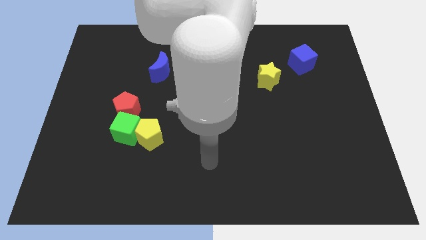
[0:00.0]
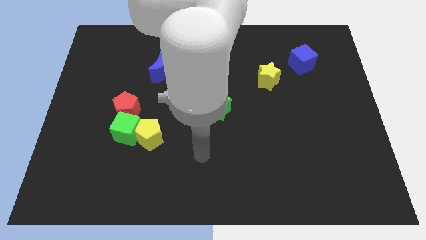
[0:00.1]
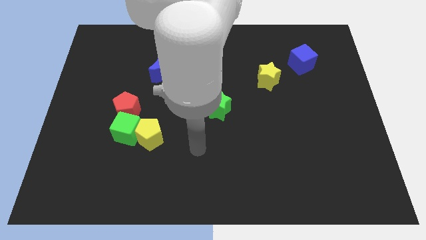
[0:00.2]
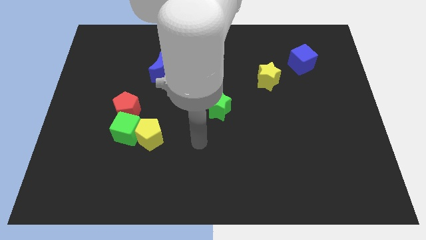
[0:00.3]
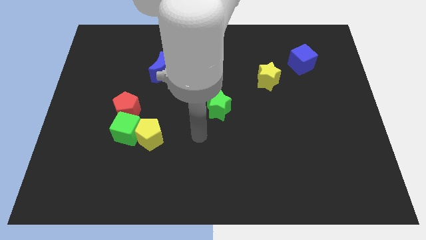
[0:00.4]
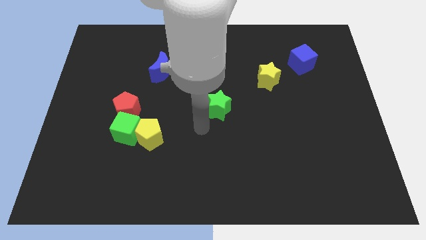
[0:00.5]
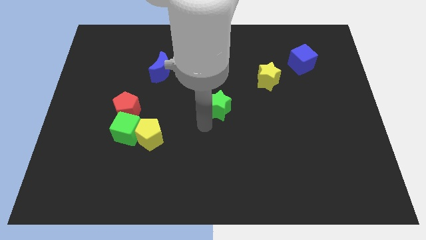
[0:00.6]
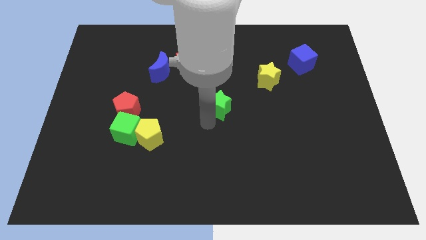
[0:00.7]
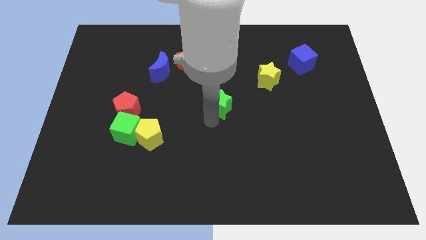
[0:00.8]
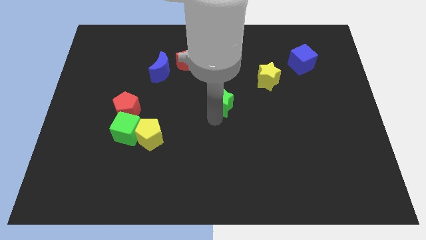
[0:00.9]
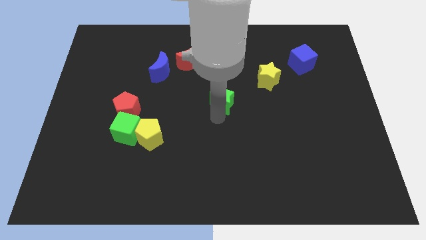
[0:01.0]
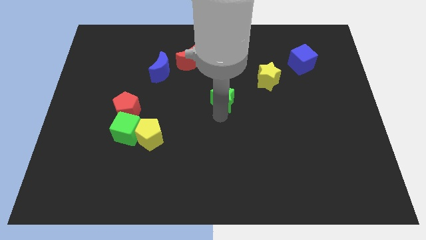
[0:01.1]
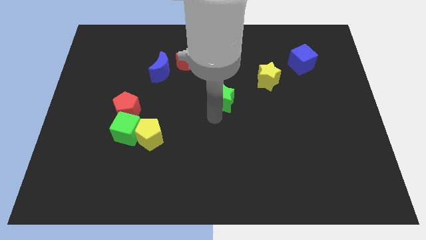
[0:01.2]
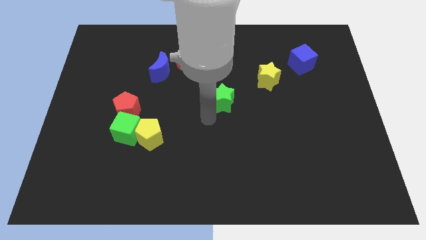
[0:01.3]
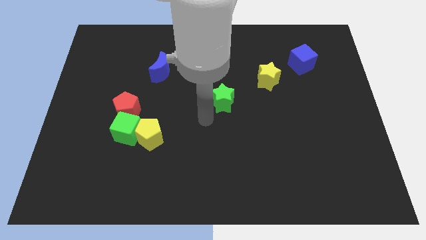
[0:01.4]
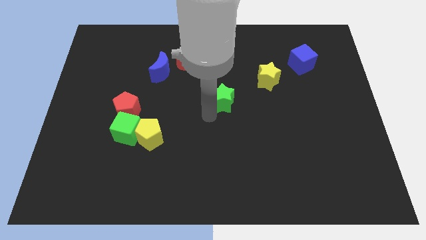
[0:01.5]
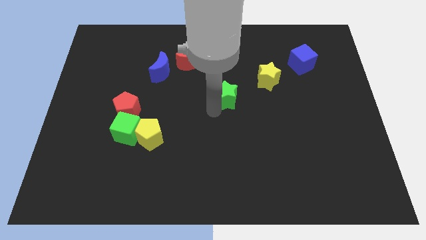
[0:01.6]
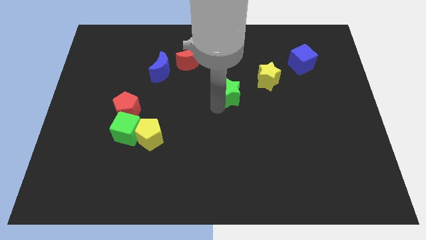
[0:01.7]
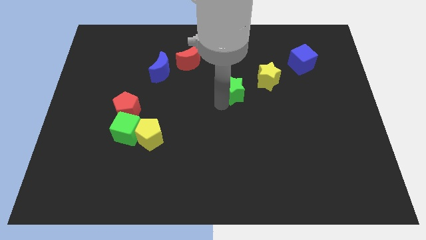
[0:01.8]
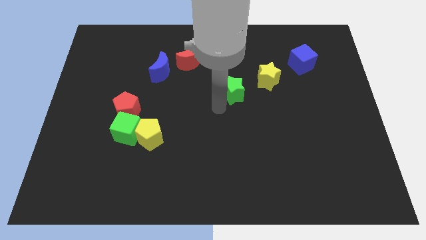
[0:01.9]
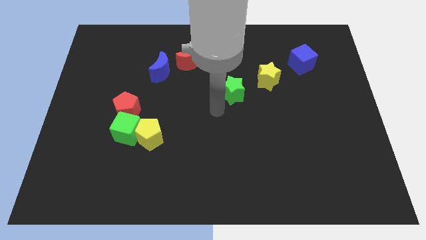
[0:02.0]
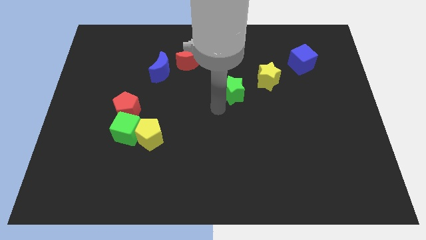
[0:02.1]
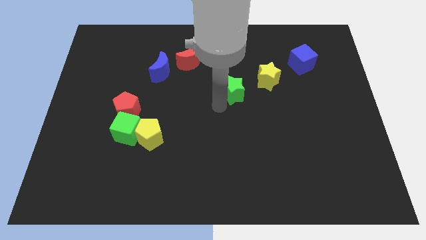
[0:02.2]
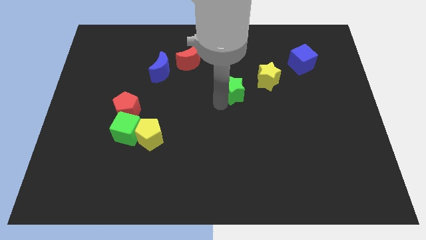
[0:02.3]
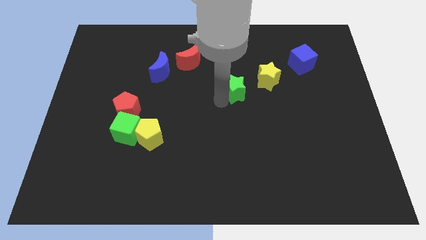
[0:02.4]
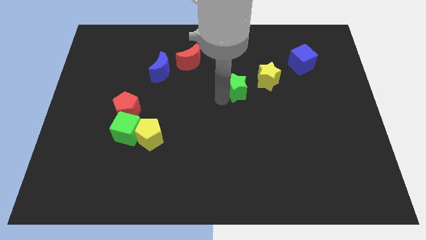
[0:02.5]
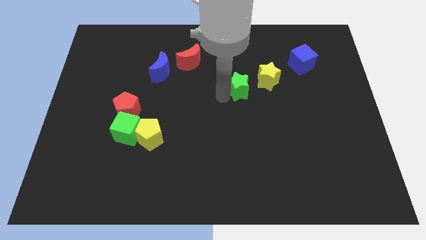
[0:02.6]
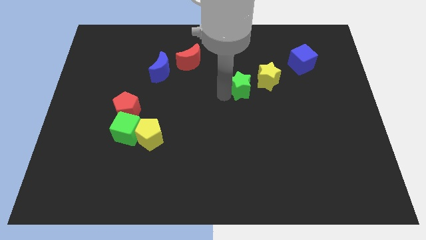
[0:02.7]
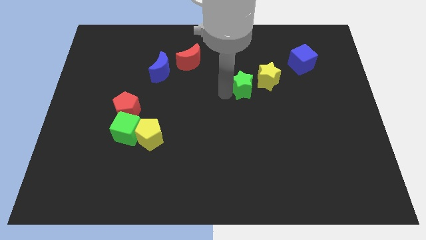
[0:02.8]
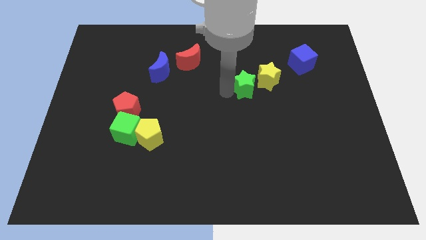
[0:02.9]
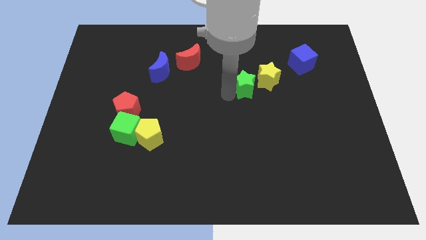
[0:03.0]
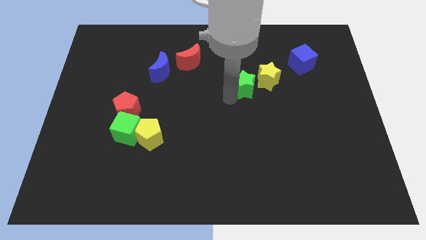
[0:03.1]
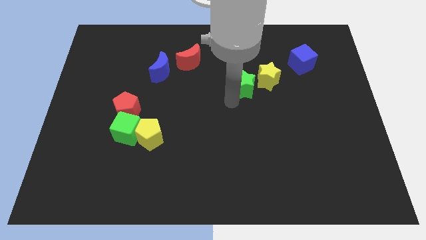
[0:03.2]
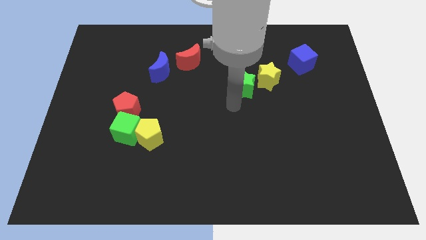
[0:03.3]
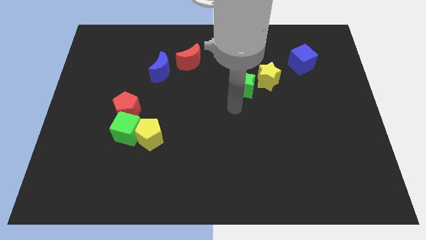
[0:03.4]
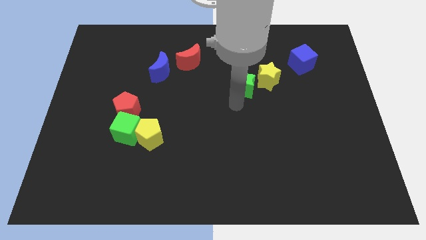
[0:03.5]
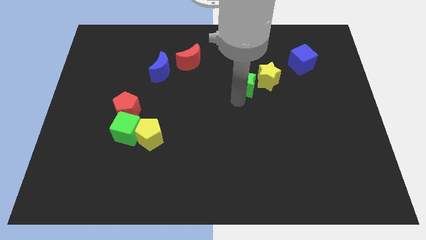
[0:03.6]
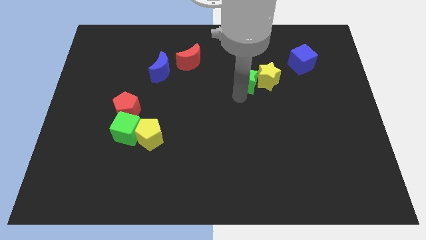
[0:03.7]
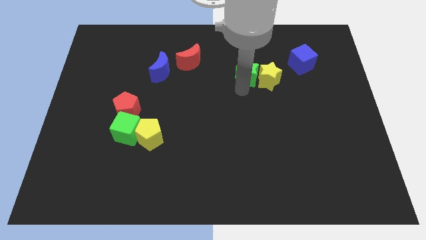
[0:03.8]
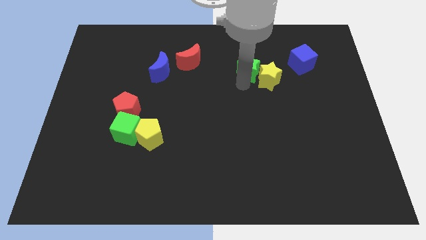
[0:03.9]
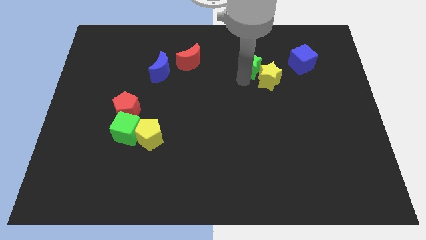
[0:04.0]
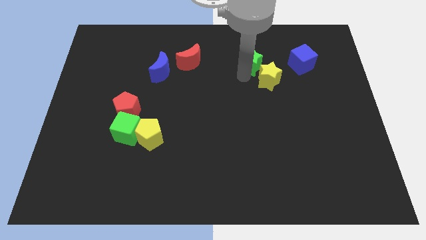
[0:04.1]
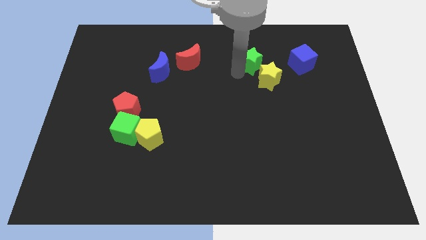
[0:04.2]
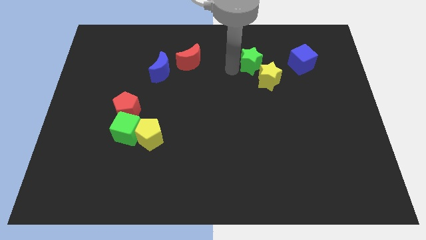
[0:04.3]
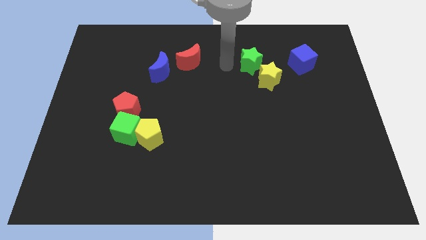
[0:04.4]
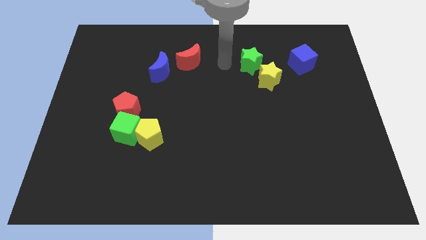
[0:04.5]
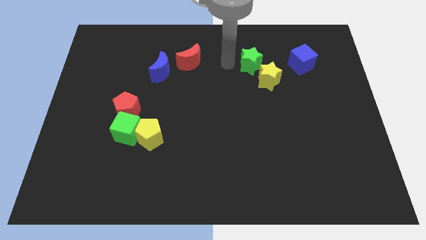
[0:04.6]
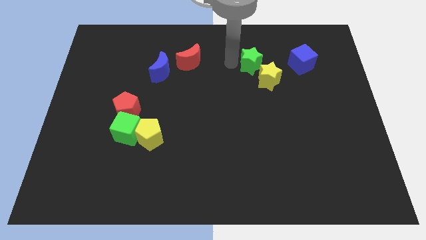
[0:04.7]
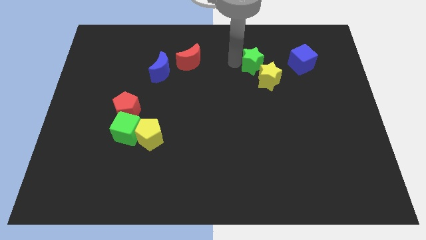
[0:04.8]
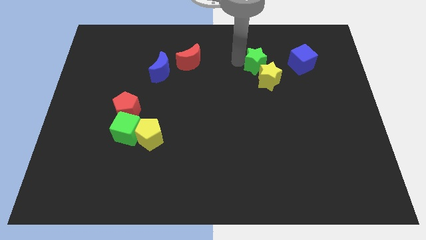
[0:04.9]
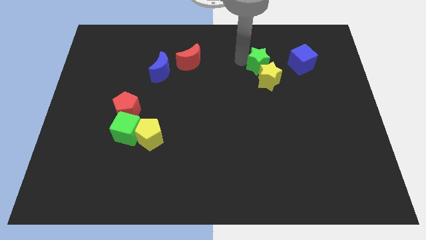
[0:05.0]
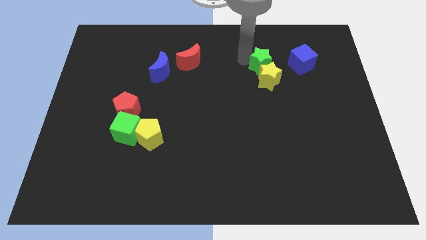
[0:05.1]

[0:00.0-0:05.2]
move the green star diagonally up and to the right of the yellow star
